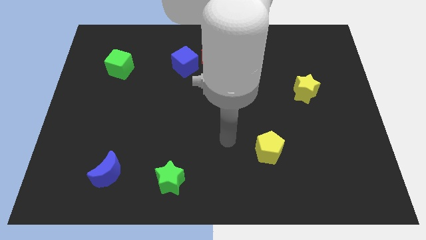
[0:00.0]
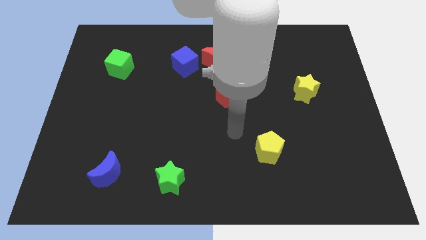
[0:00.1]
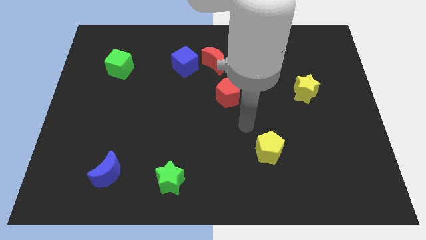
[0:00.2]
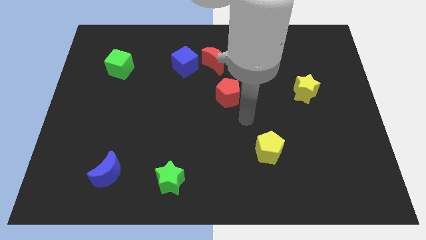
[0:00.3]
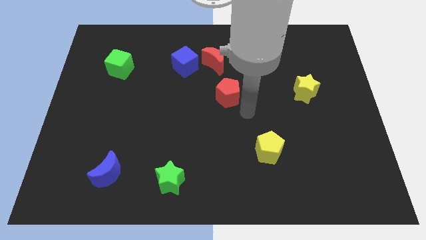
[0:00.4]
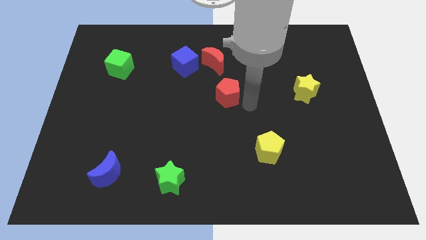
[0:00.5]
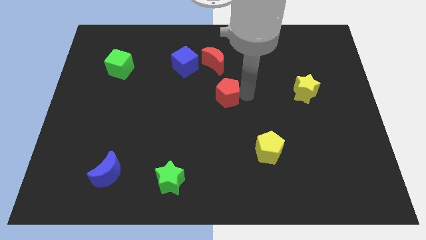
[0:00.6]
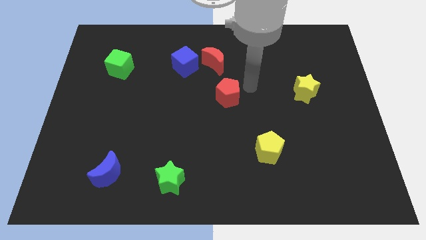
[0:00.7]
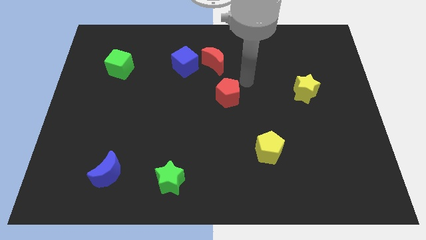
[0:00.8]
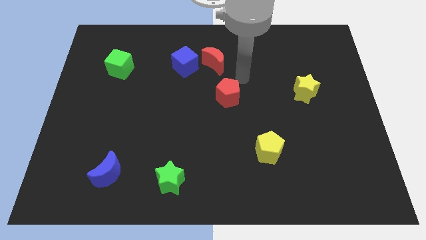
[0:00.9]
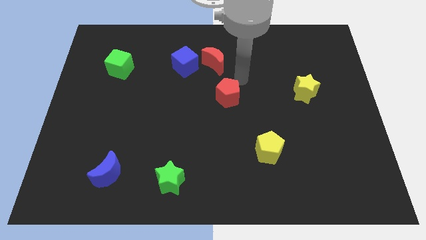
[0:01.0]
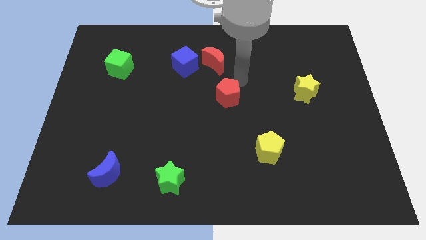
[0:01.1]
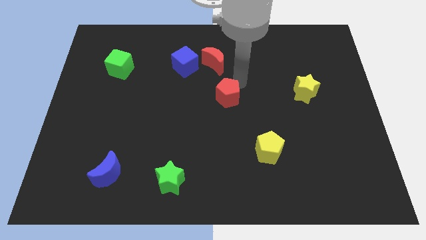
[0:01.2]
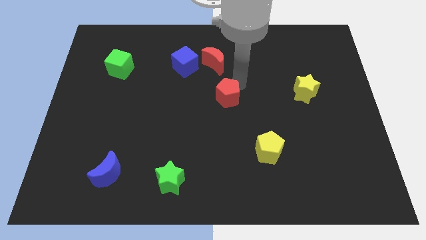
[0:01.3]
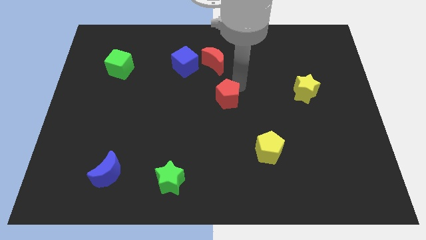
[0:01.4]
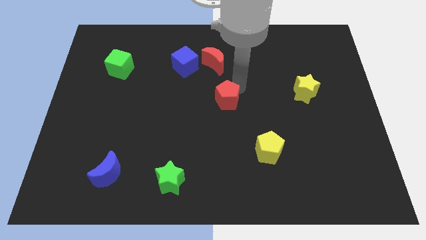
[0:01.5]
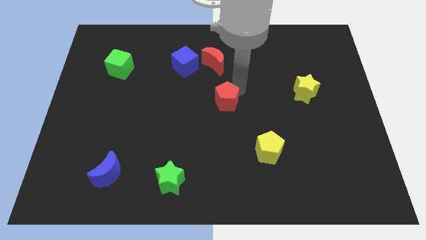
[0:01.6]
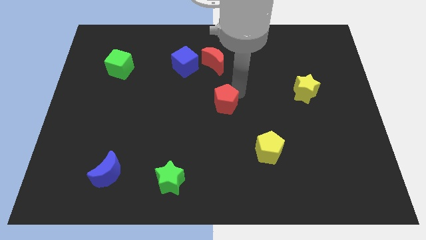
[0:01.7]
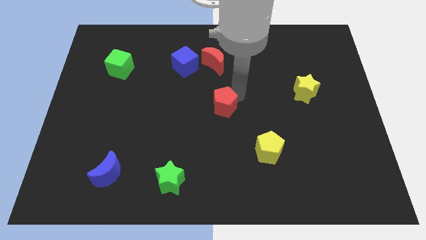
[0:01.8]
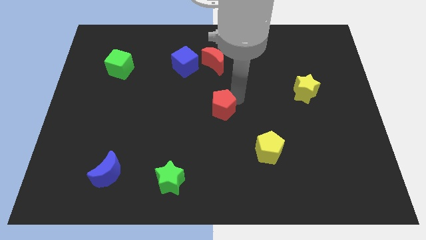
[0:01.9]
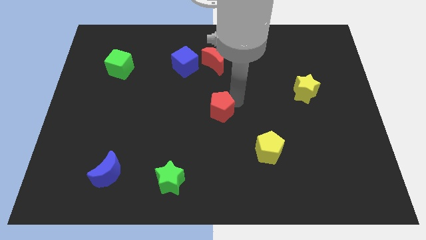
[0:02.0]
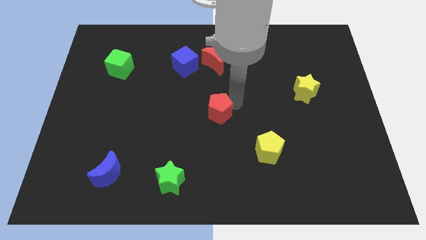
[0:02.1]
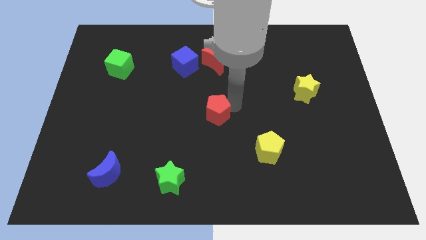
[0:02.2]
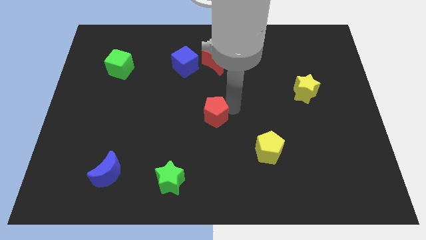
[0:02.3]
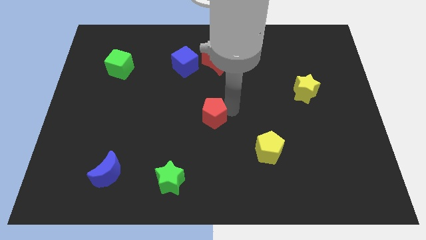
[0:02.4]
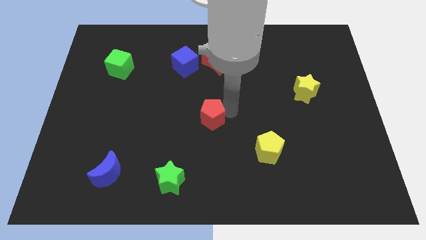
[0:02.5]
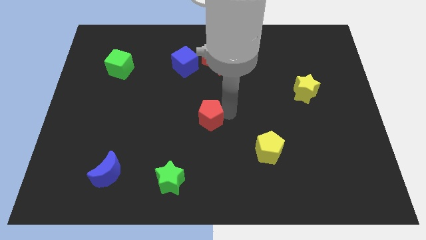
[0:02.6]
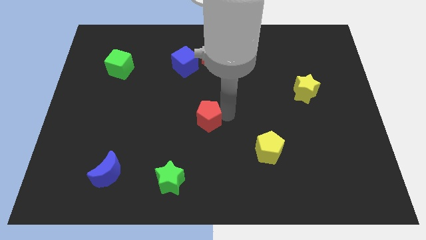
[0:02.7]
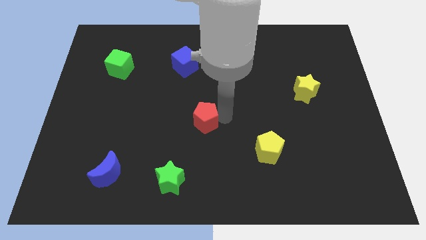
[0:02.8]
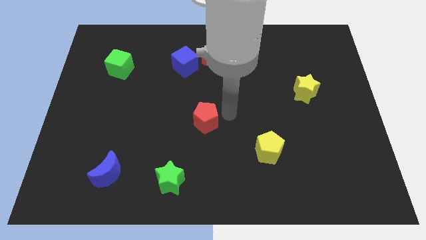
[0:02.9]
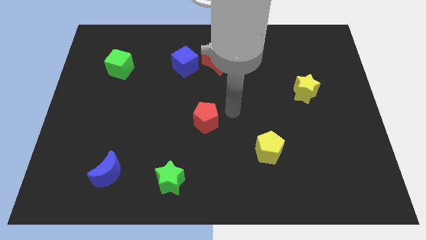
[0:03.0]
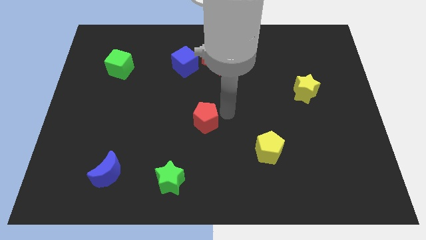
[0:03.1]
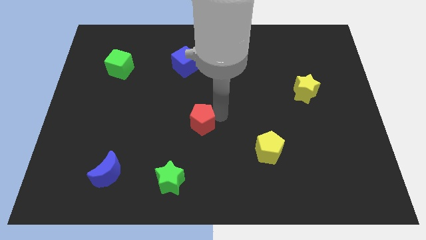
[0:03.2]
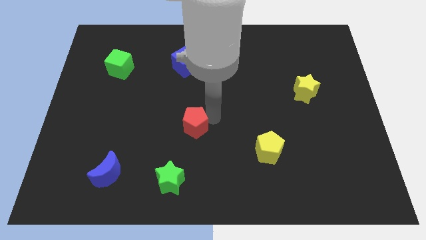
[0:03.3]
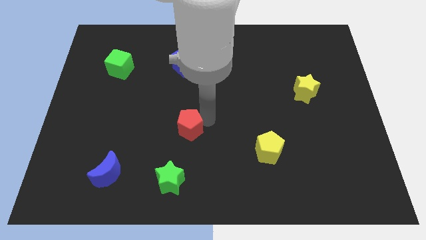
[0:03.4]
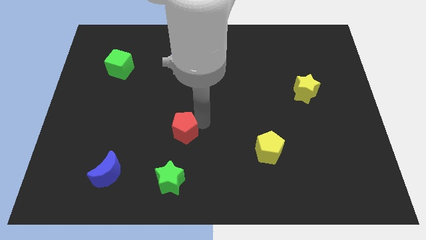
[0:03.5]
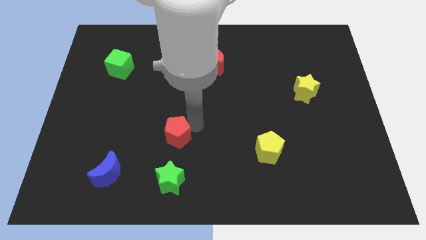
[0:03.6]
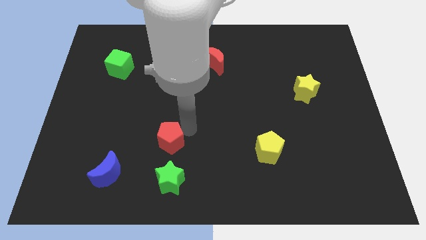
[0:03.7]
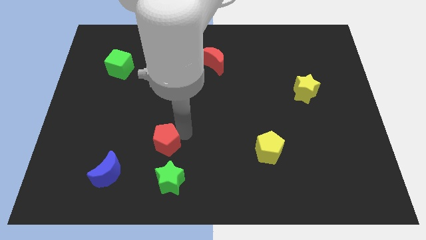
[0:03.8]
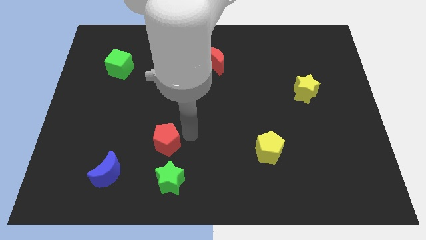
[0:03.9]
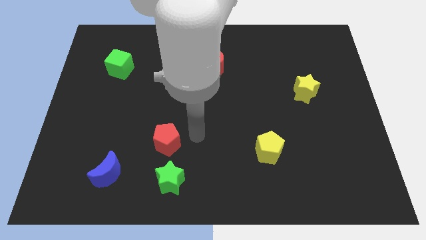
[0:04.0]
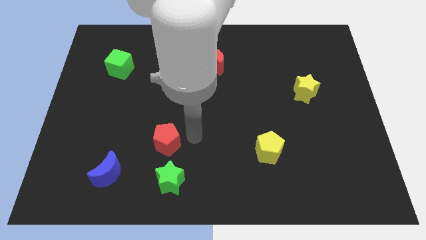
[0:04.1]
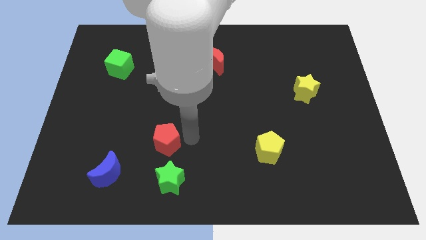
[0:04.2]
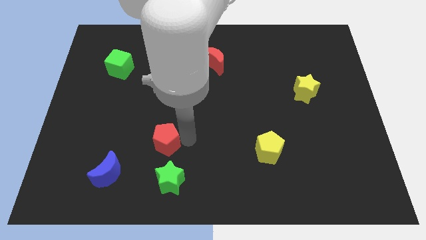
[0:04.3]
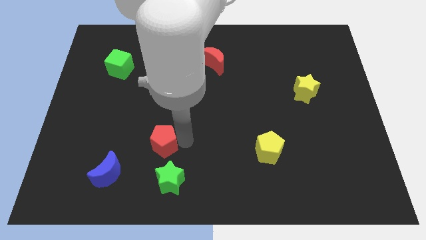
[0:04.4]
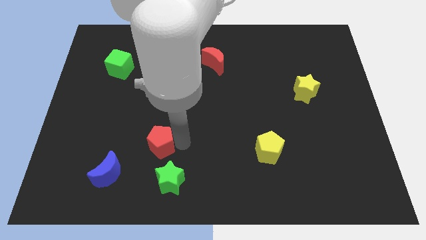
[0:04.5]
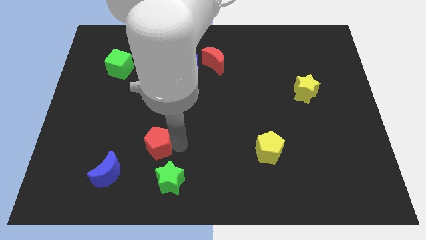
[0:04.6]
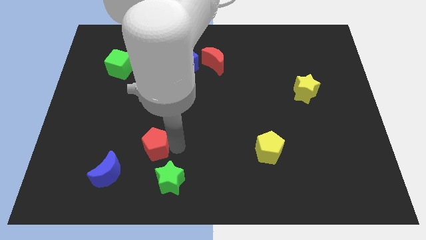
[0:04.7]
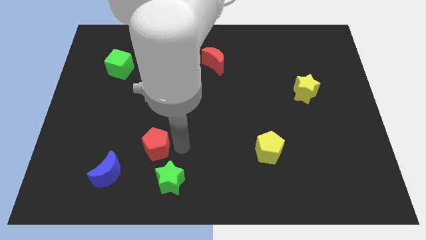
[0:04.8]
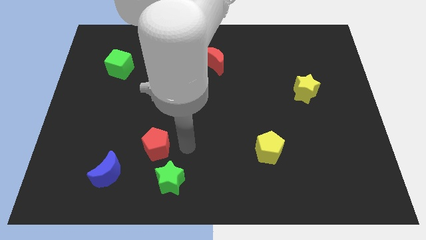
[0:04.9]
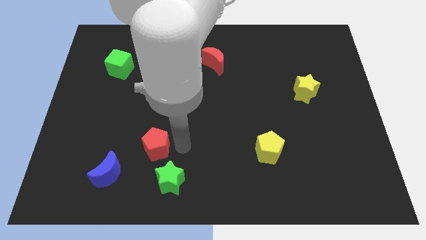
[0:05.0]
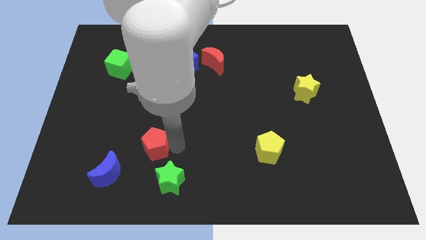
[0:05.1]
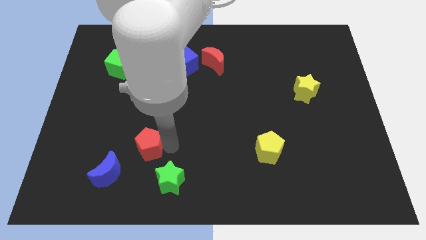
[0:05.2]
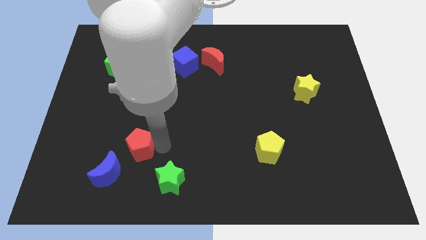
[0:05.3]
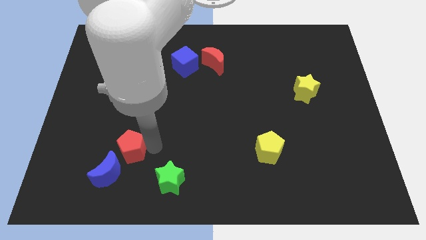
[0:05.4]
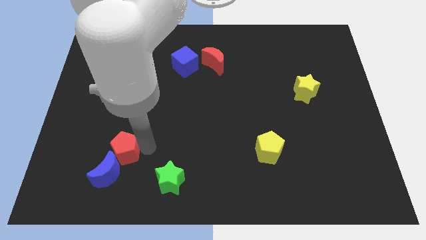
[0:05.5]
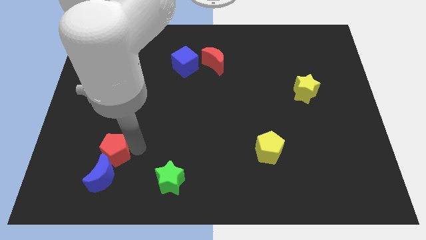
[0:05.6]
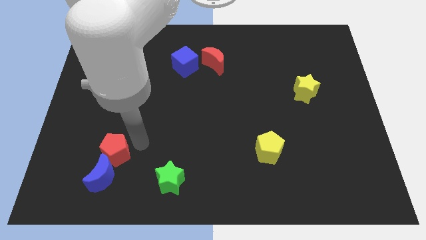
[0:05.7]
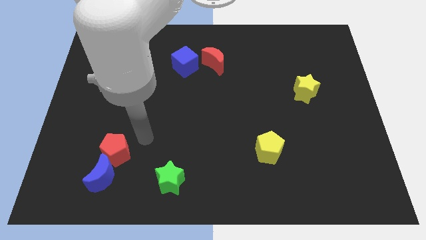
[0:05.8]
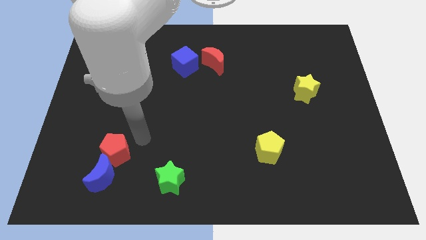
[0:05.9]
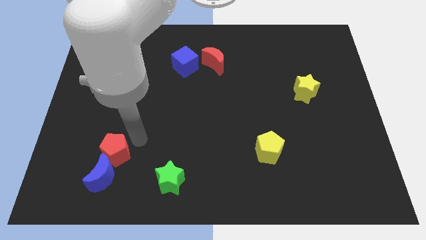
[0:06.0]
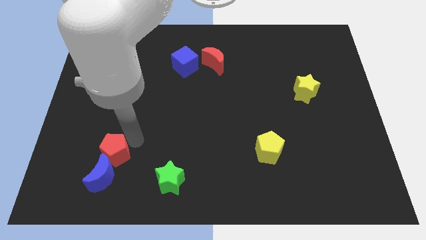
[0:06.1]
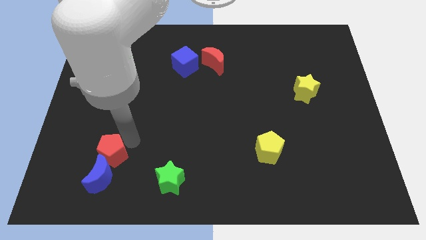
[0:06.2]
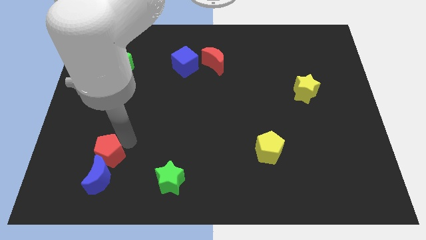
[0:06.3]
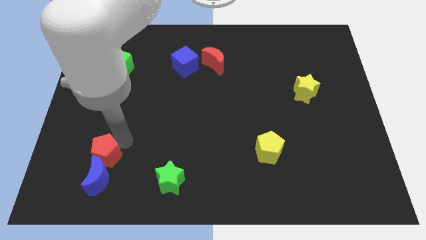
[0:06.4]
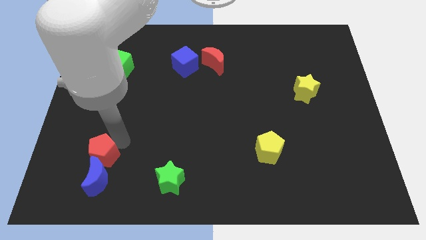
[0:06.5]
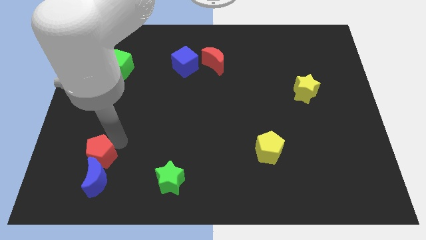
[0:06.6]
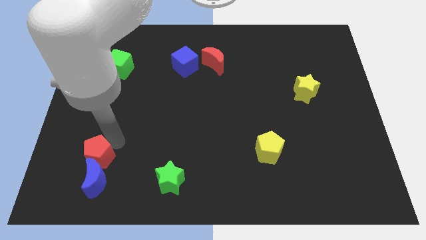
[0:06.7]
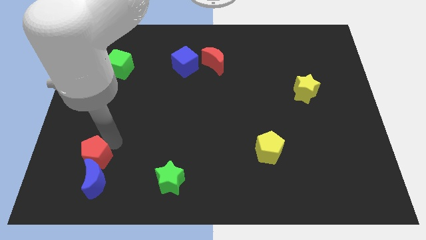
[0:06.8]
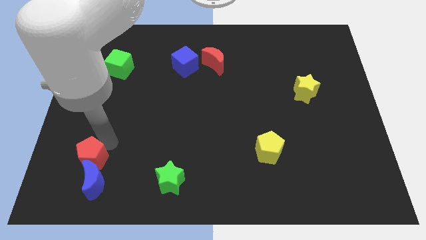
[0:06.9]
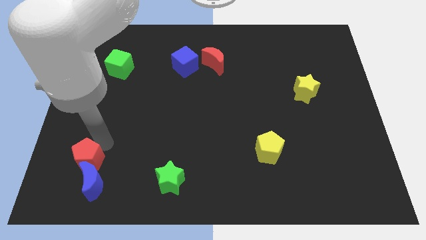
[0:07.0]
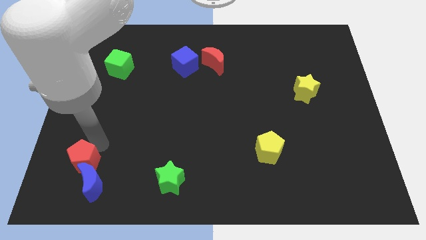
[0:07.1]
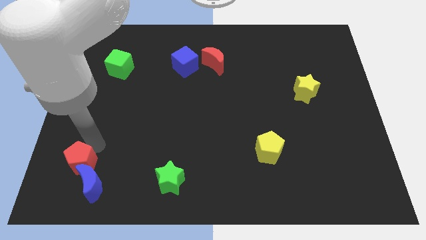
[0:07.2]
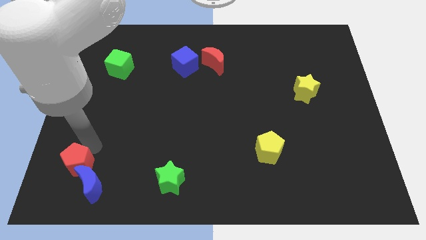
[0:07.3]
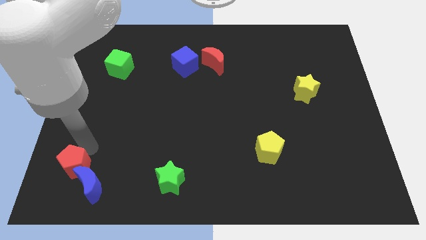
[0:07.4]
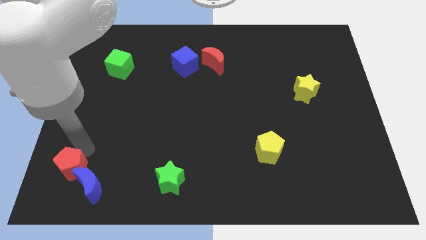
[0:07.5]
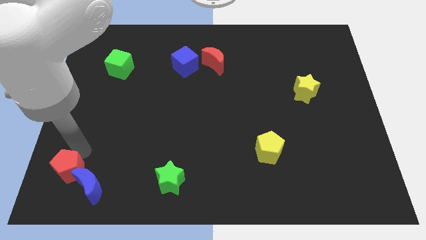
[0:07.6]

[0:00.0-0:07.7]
push the red pentagon to the lower left corner

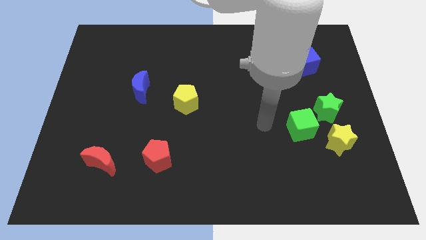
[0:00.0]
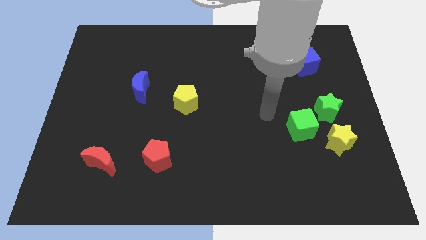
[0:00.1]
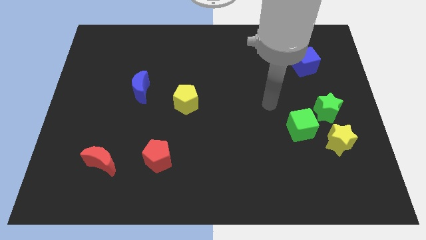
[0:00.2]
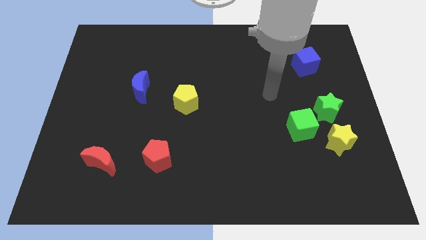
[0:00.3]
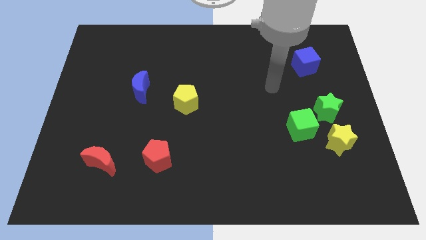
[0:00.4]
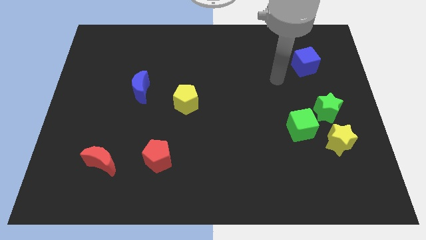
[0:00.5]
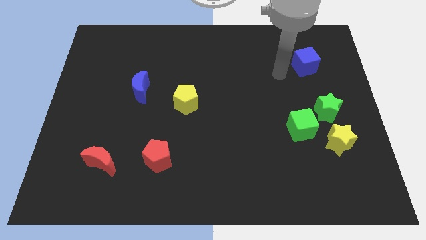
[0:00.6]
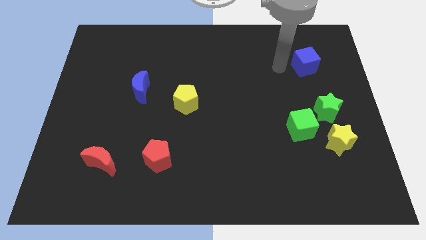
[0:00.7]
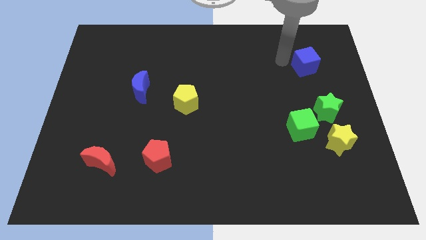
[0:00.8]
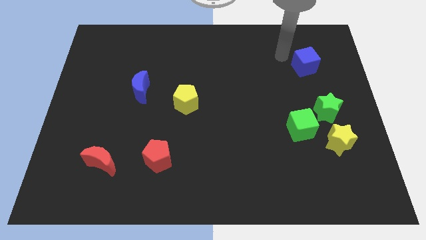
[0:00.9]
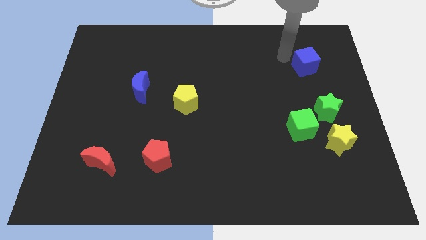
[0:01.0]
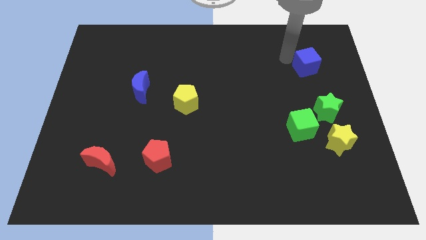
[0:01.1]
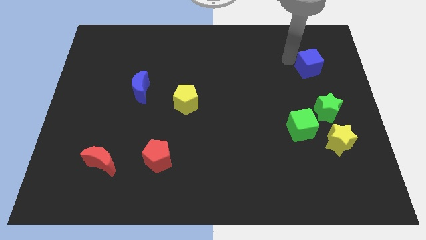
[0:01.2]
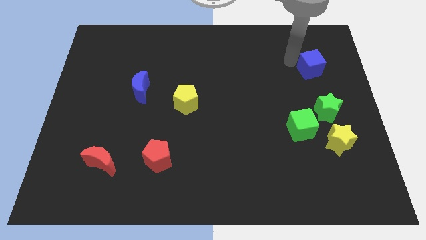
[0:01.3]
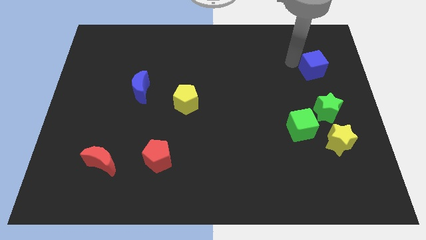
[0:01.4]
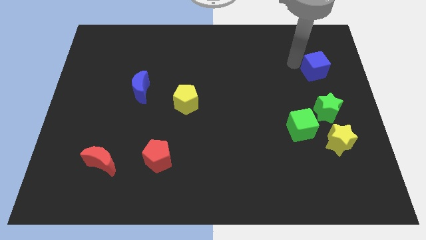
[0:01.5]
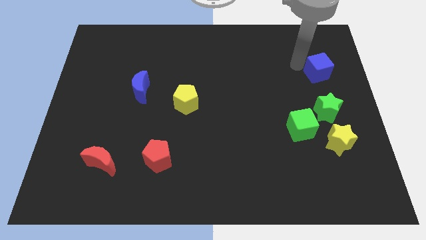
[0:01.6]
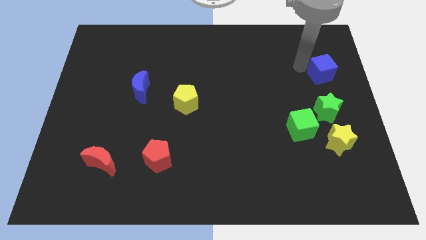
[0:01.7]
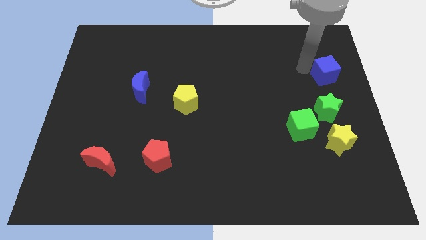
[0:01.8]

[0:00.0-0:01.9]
push the blue cube to the right side
